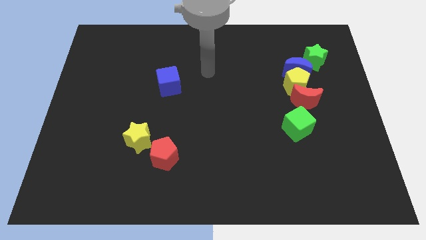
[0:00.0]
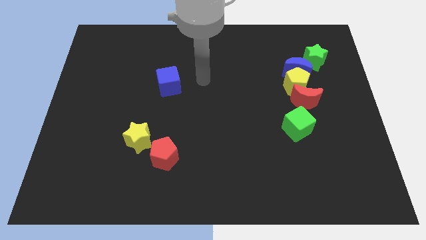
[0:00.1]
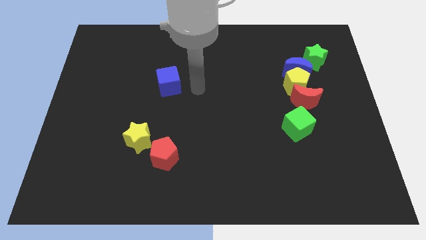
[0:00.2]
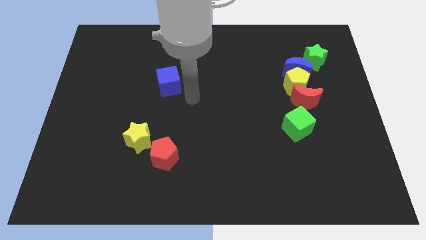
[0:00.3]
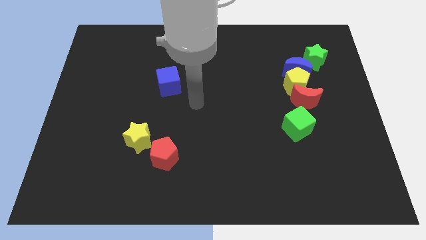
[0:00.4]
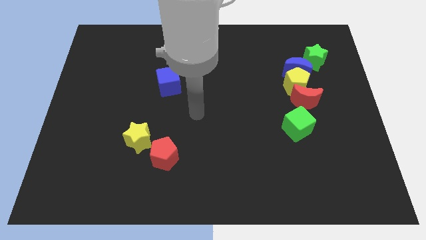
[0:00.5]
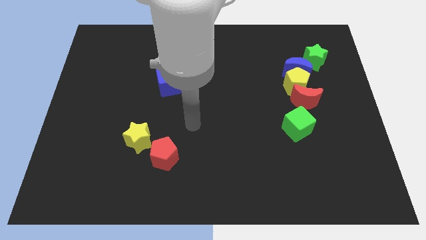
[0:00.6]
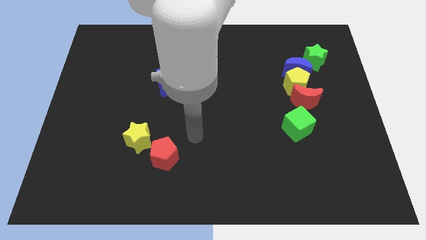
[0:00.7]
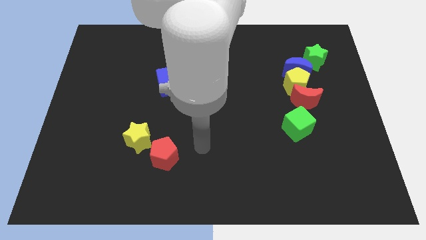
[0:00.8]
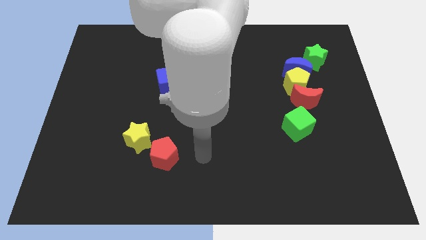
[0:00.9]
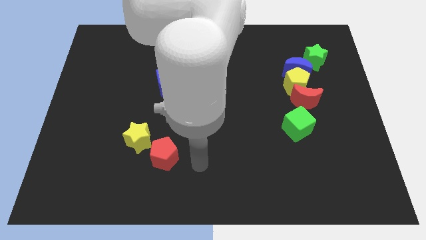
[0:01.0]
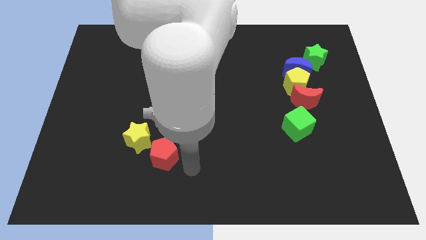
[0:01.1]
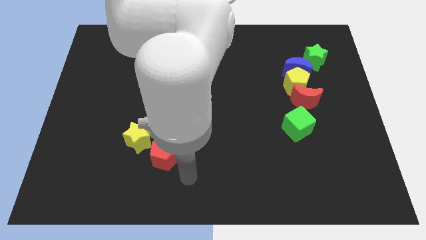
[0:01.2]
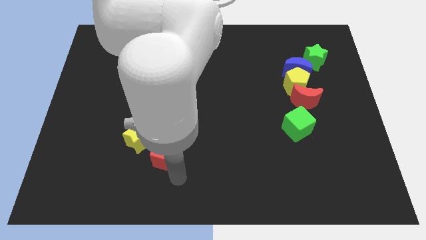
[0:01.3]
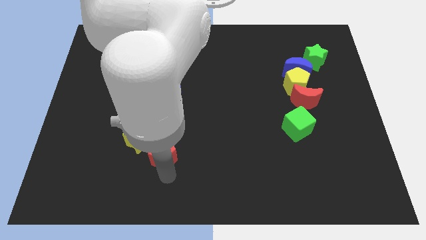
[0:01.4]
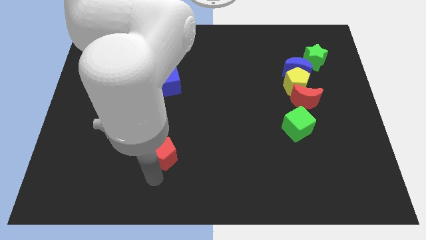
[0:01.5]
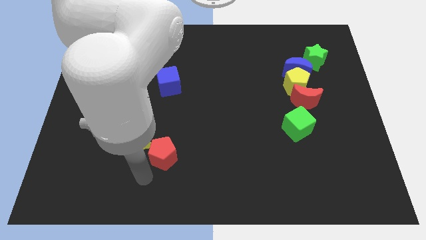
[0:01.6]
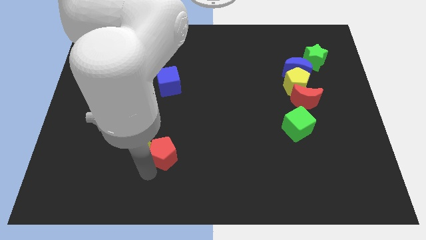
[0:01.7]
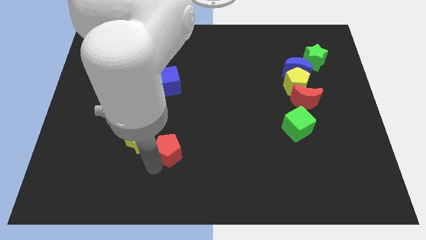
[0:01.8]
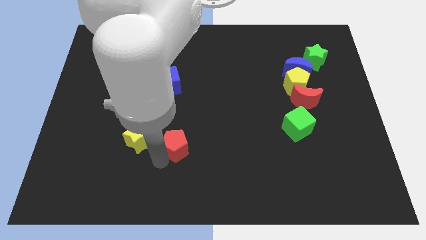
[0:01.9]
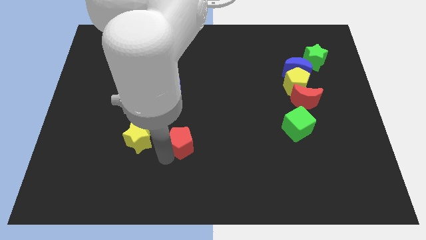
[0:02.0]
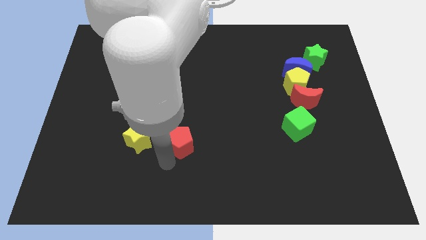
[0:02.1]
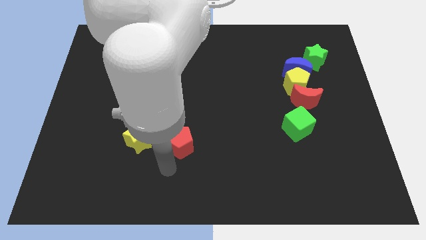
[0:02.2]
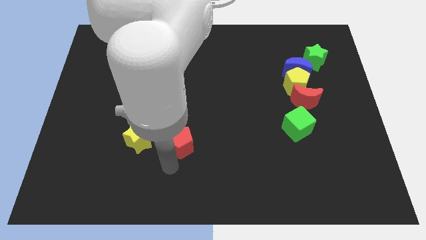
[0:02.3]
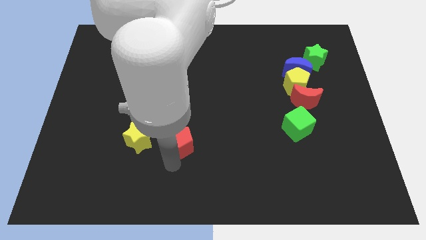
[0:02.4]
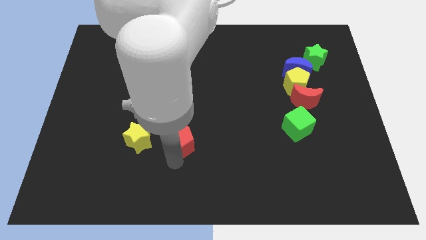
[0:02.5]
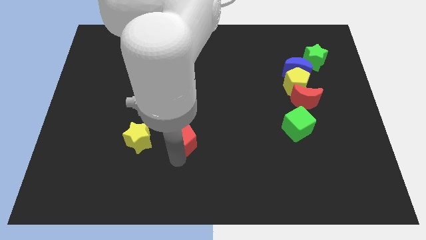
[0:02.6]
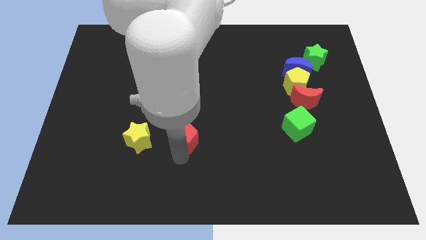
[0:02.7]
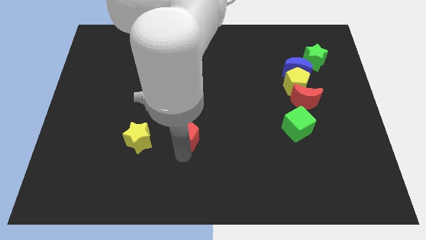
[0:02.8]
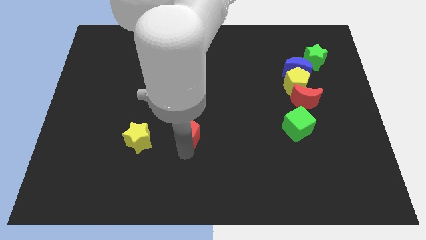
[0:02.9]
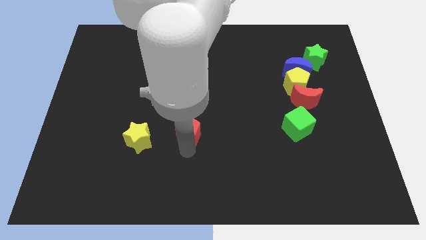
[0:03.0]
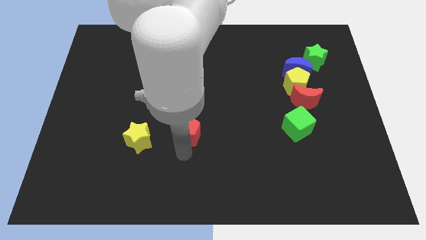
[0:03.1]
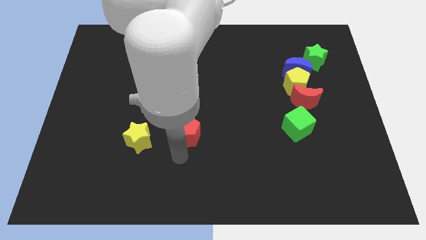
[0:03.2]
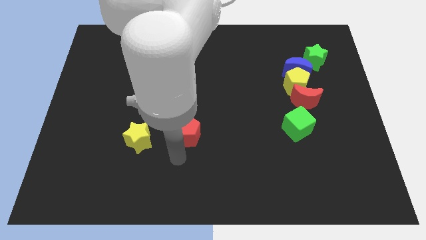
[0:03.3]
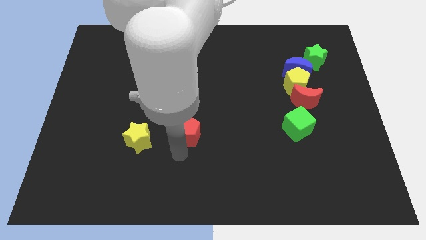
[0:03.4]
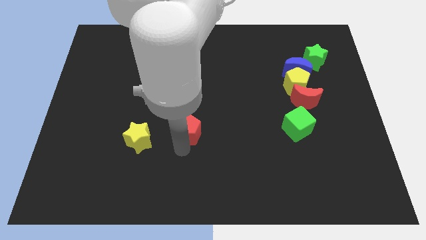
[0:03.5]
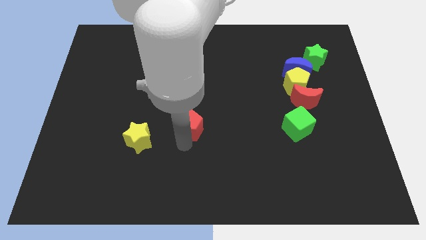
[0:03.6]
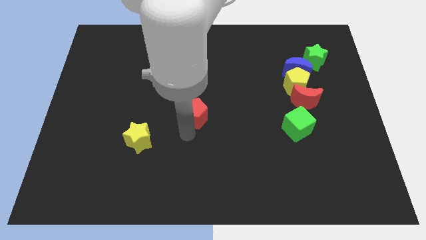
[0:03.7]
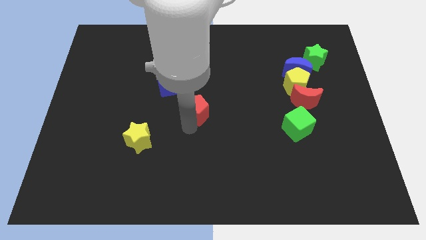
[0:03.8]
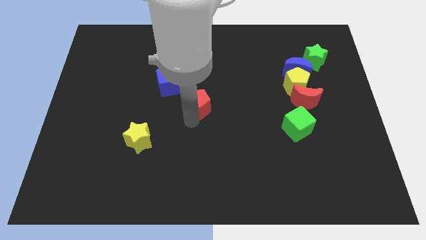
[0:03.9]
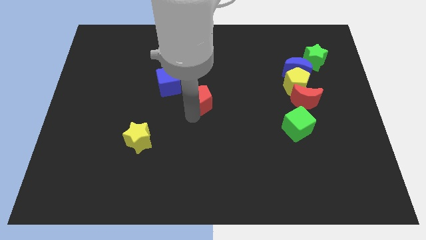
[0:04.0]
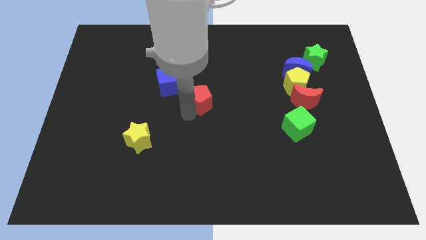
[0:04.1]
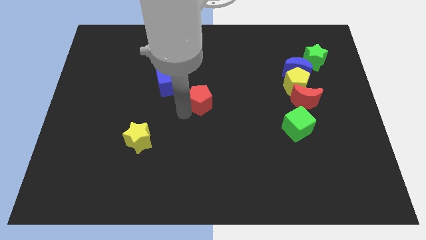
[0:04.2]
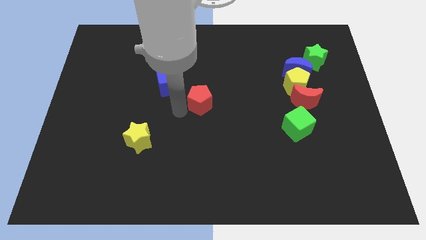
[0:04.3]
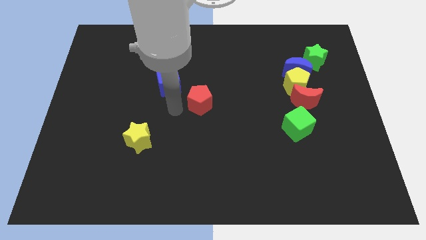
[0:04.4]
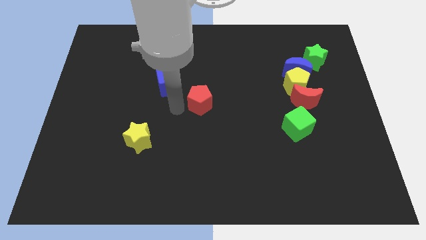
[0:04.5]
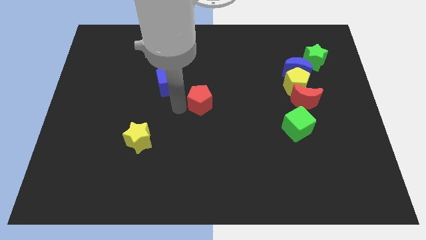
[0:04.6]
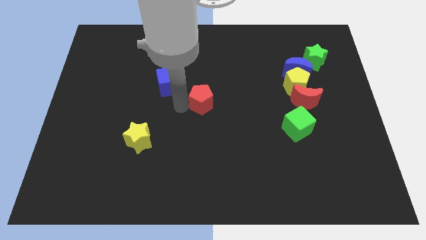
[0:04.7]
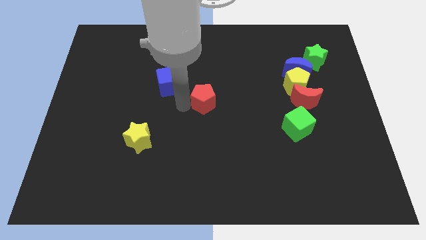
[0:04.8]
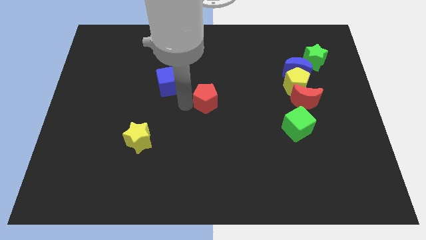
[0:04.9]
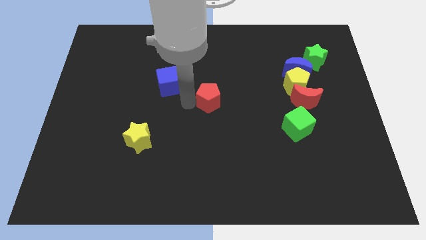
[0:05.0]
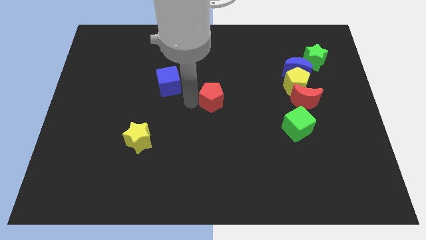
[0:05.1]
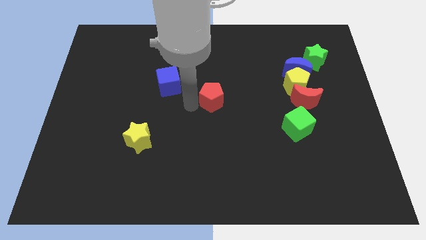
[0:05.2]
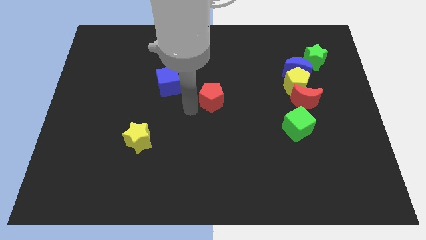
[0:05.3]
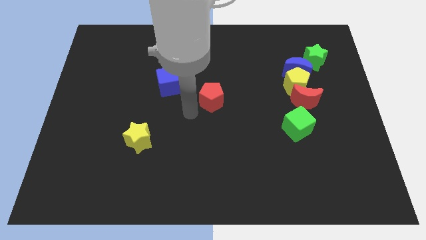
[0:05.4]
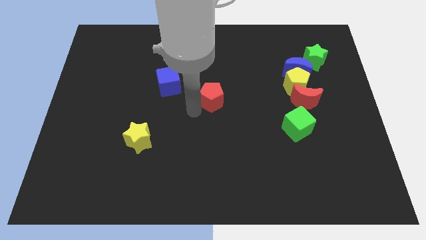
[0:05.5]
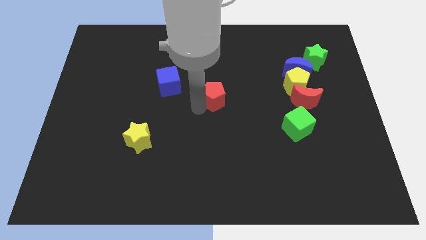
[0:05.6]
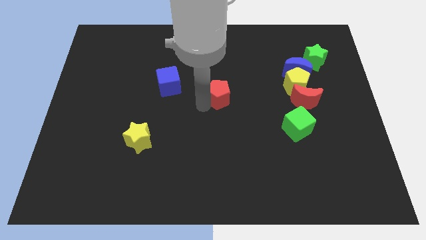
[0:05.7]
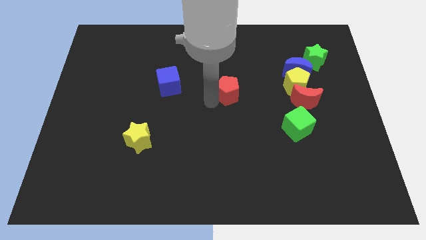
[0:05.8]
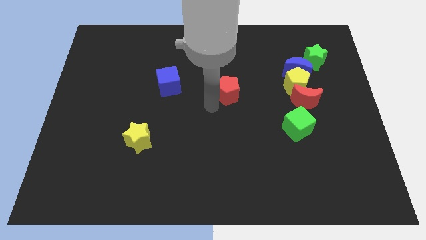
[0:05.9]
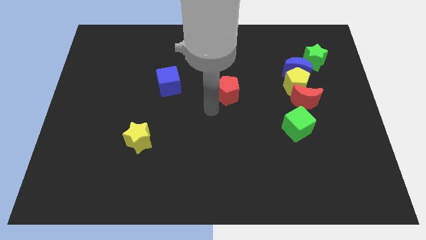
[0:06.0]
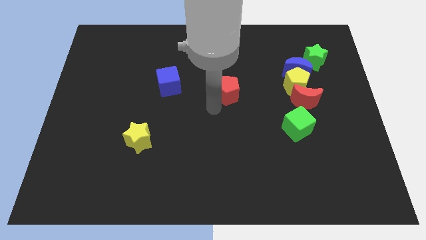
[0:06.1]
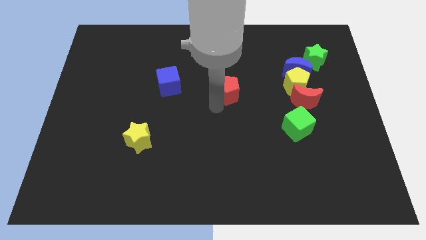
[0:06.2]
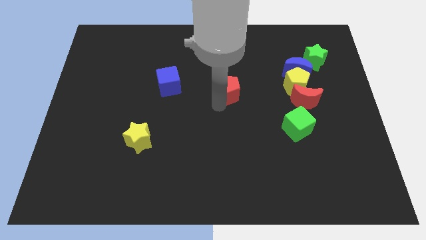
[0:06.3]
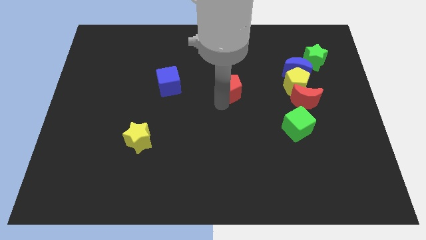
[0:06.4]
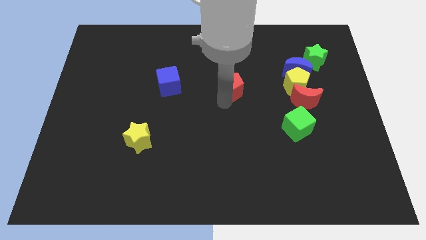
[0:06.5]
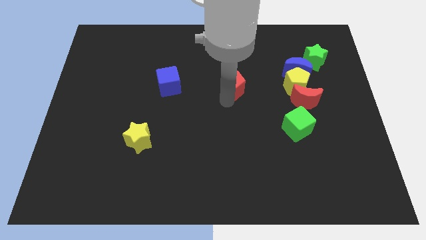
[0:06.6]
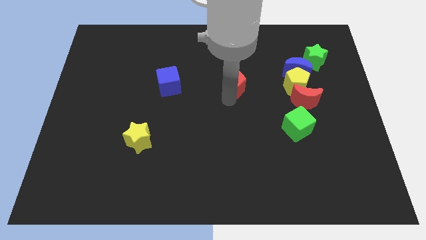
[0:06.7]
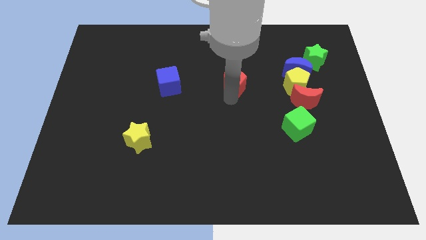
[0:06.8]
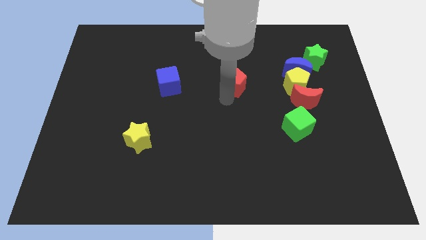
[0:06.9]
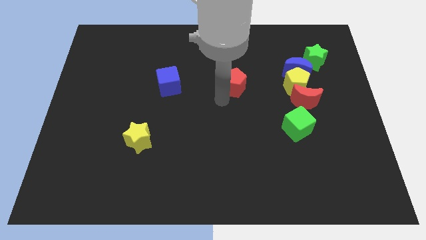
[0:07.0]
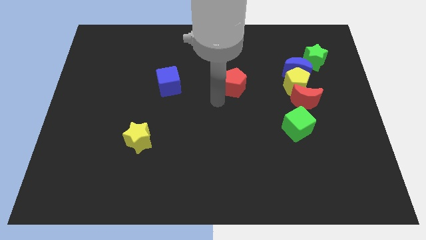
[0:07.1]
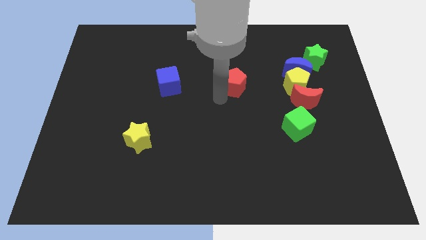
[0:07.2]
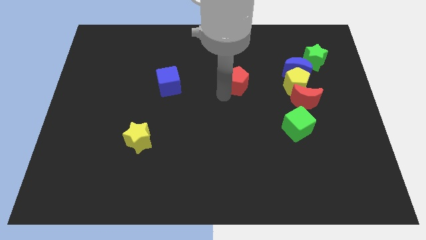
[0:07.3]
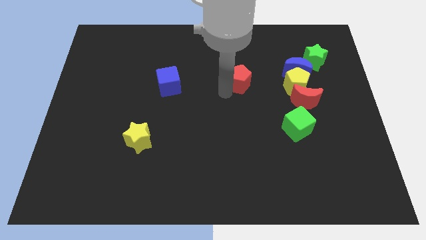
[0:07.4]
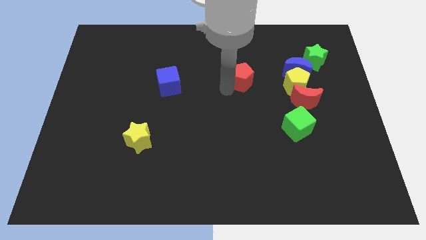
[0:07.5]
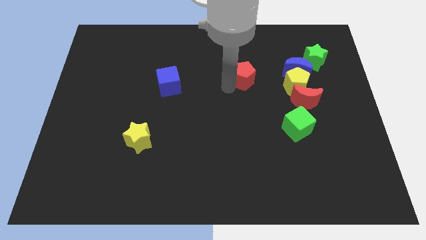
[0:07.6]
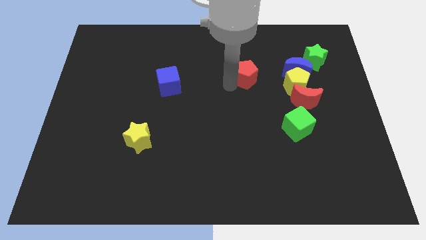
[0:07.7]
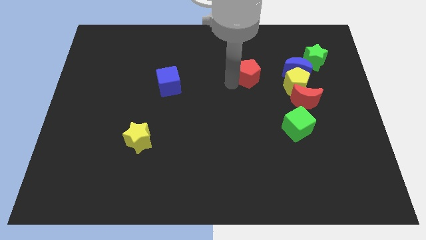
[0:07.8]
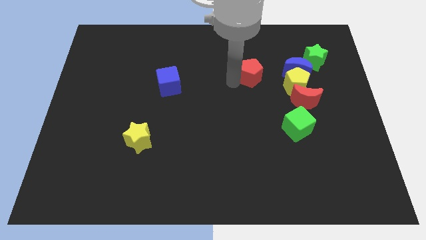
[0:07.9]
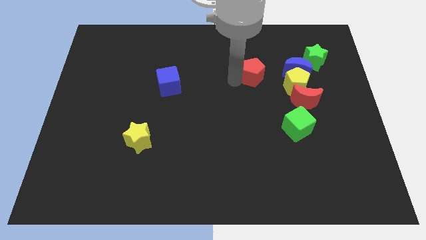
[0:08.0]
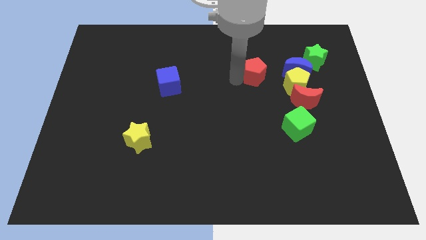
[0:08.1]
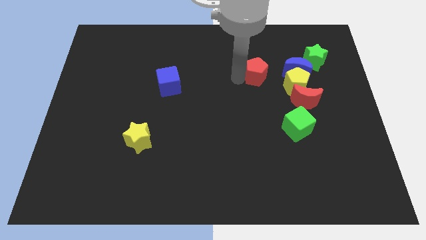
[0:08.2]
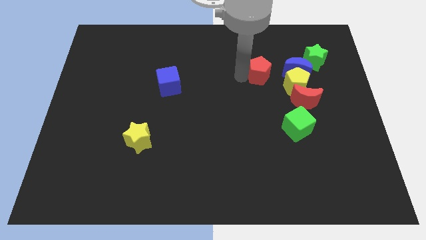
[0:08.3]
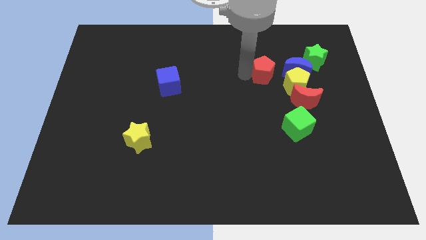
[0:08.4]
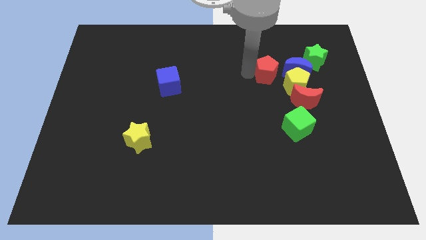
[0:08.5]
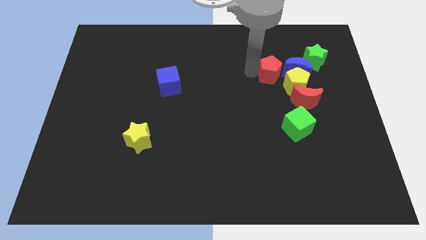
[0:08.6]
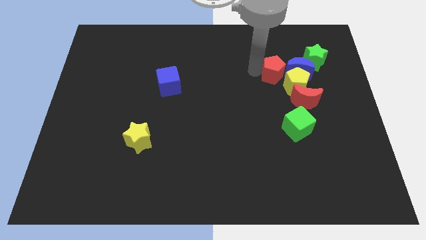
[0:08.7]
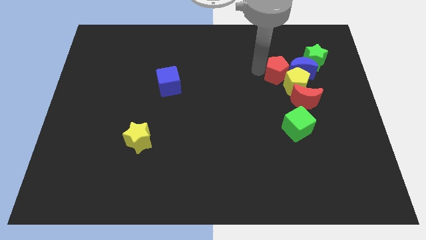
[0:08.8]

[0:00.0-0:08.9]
put the red pentagon to the top side of the yellow pentagon
